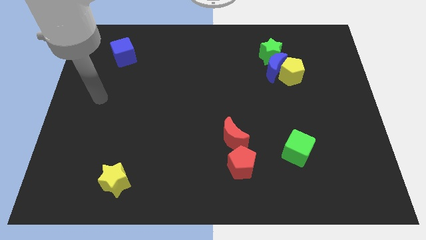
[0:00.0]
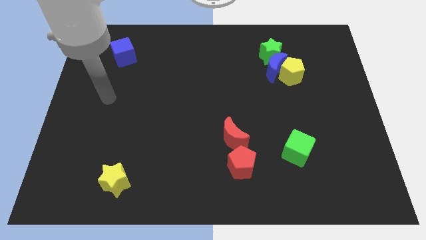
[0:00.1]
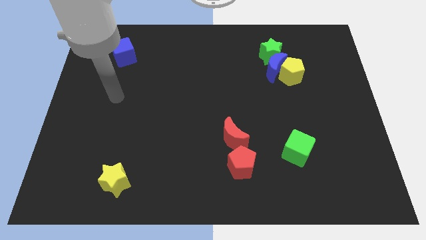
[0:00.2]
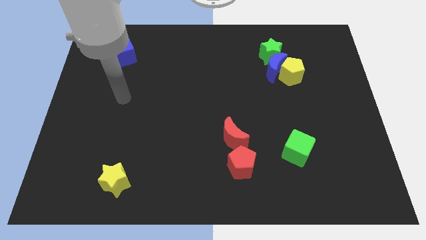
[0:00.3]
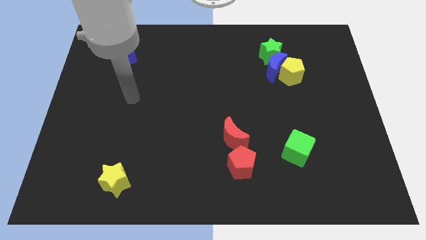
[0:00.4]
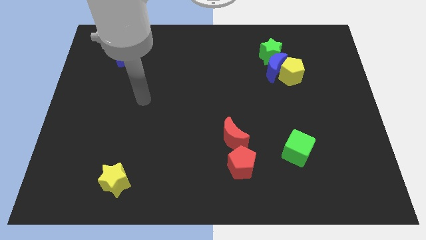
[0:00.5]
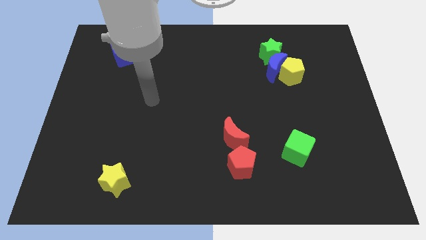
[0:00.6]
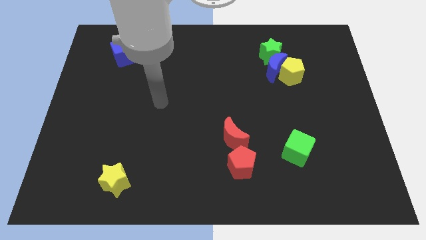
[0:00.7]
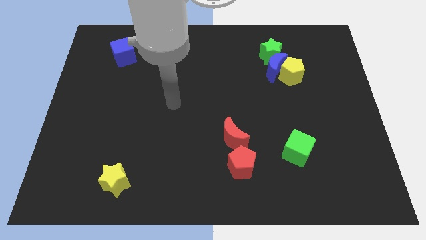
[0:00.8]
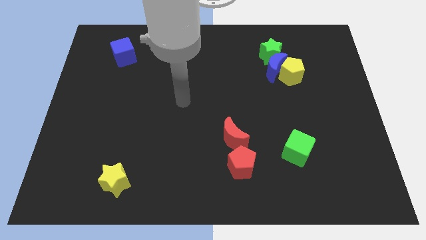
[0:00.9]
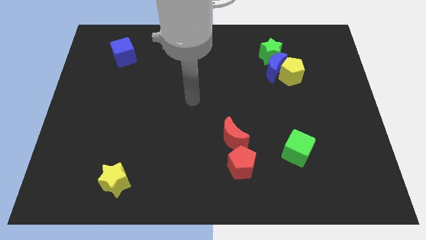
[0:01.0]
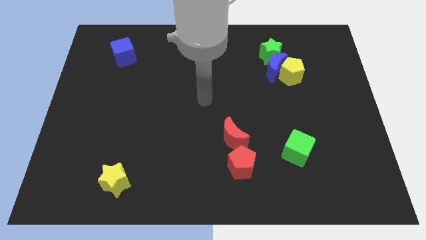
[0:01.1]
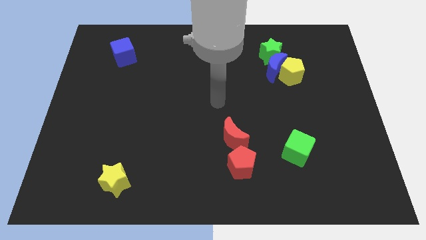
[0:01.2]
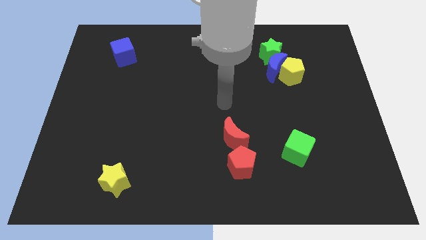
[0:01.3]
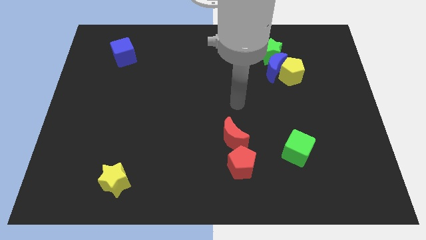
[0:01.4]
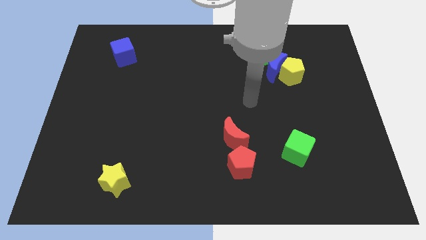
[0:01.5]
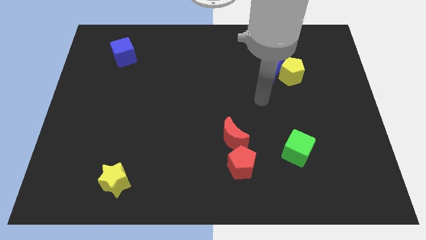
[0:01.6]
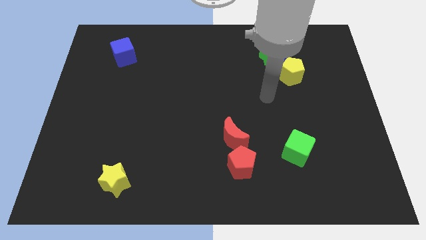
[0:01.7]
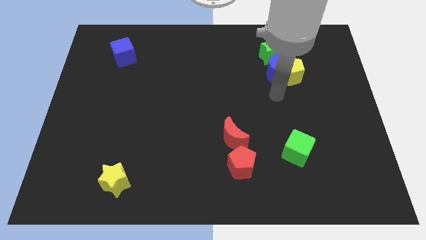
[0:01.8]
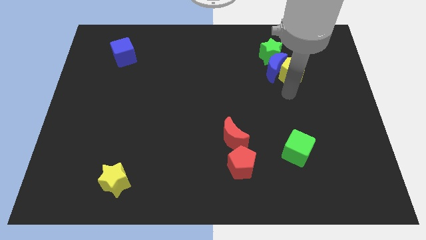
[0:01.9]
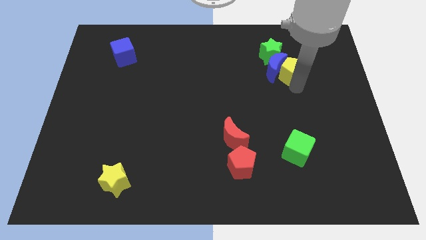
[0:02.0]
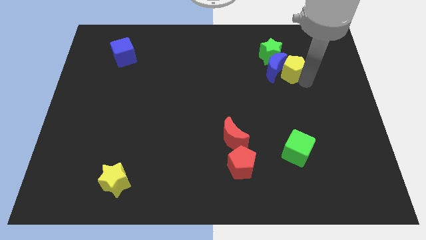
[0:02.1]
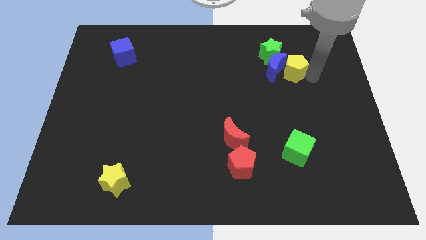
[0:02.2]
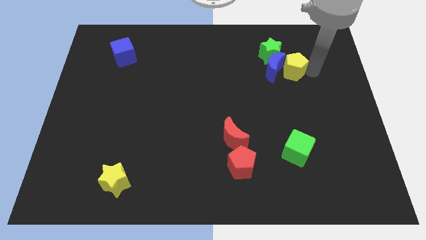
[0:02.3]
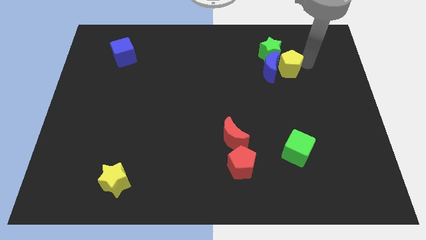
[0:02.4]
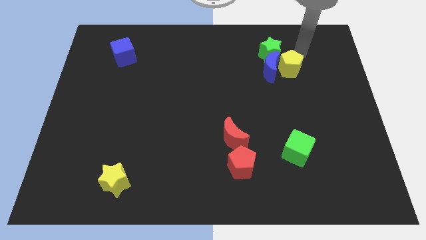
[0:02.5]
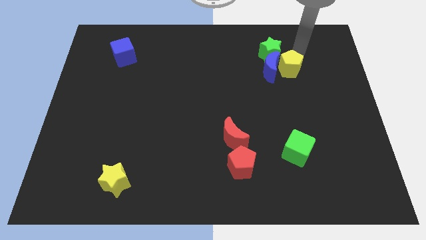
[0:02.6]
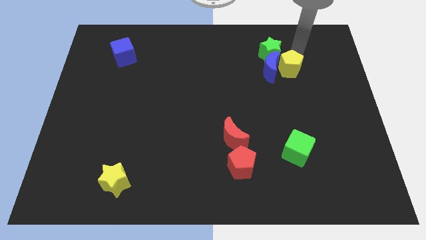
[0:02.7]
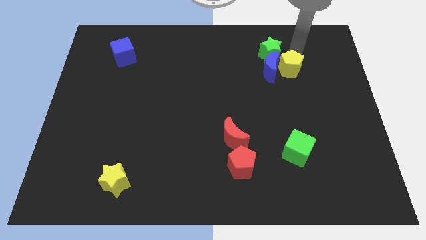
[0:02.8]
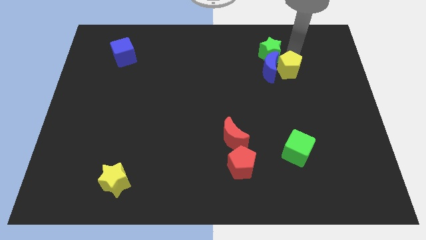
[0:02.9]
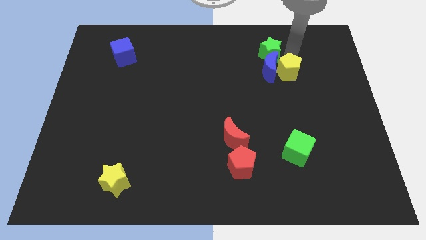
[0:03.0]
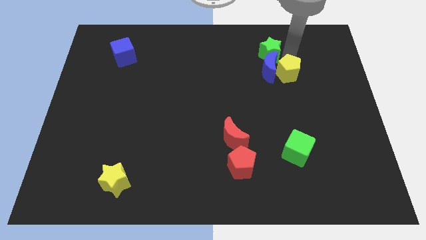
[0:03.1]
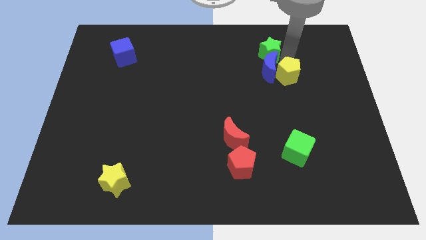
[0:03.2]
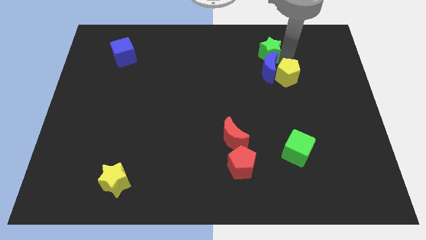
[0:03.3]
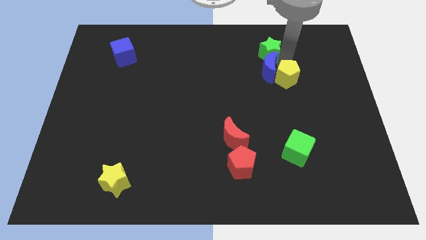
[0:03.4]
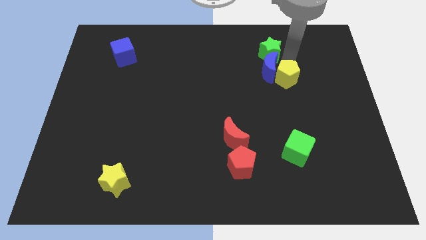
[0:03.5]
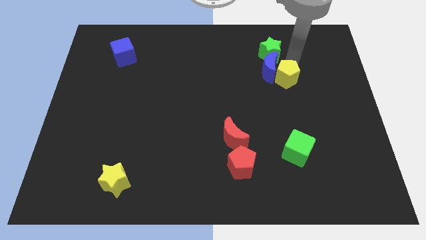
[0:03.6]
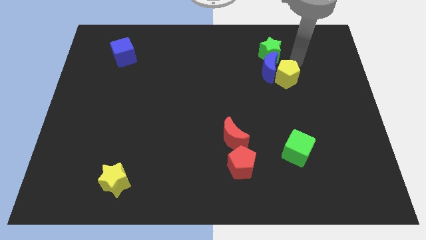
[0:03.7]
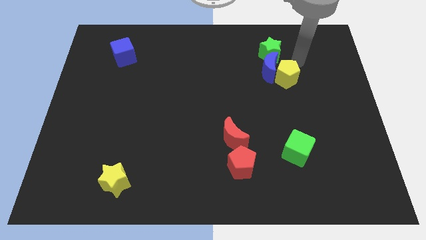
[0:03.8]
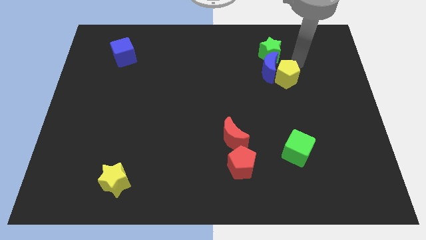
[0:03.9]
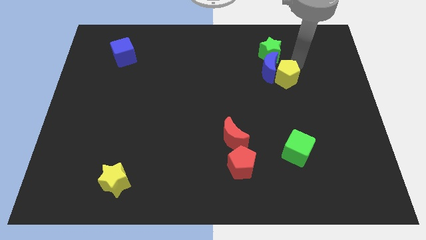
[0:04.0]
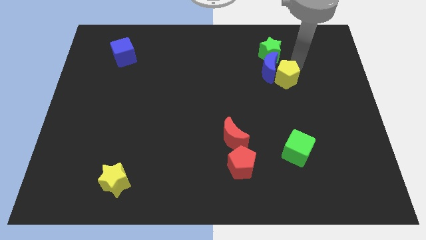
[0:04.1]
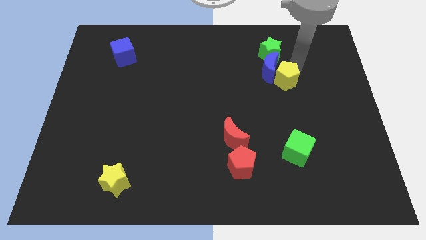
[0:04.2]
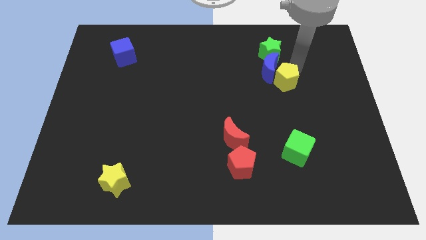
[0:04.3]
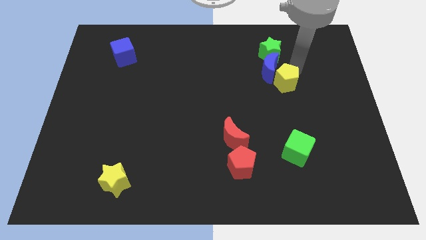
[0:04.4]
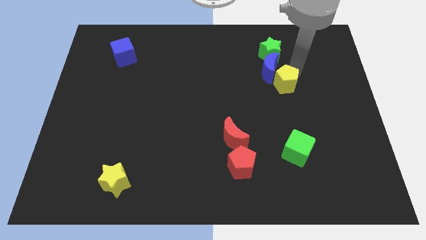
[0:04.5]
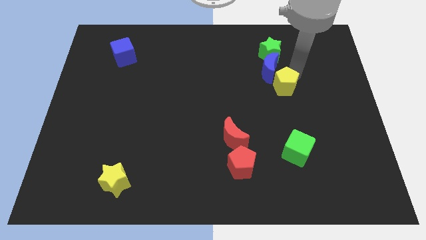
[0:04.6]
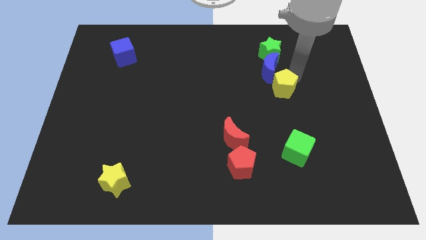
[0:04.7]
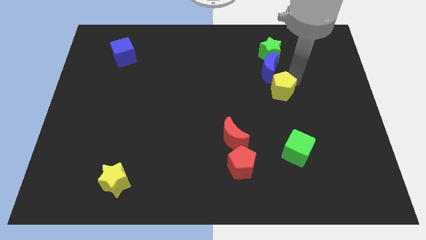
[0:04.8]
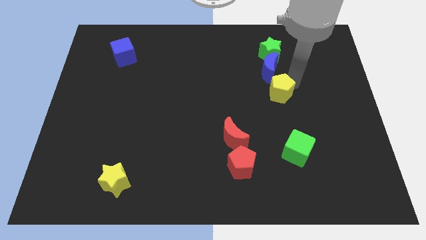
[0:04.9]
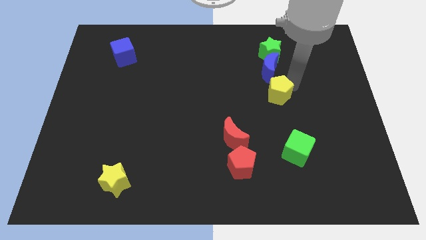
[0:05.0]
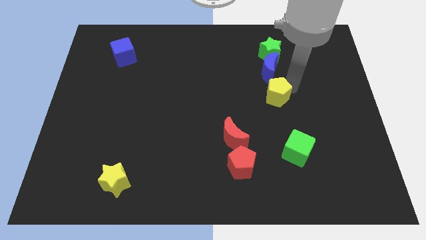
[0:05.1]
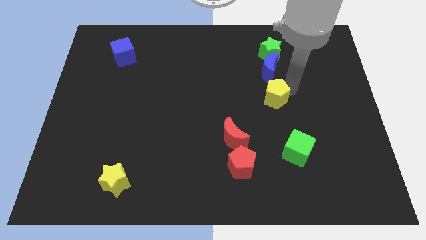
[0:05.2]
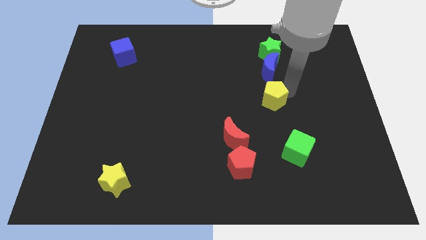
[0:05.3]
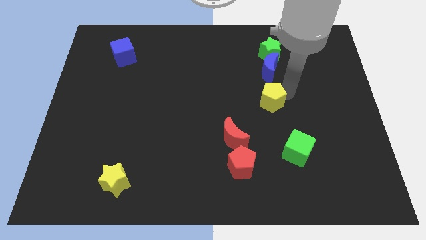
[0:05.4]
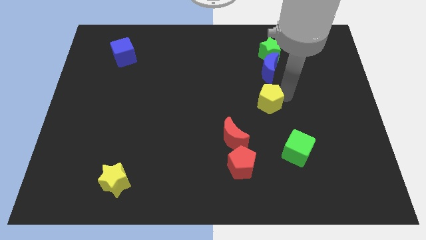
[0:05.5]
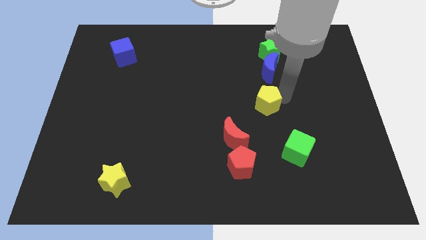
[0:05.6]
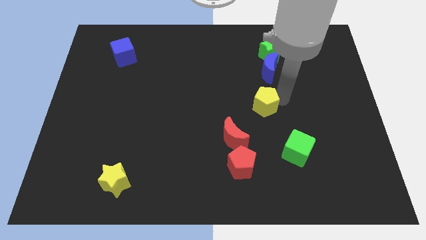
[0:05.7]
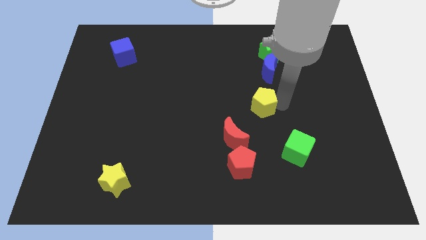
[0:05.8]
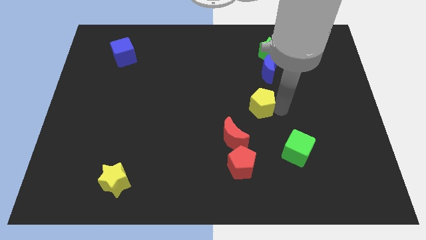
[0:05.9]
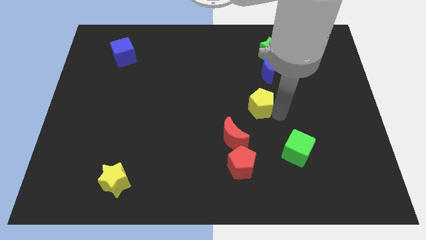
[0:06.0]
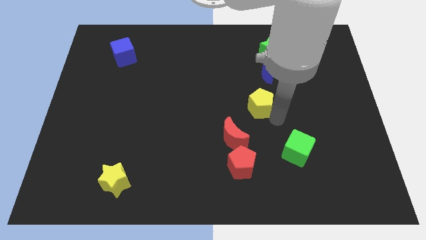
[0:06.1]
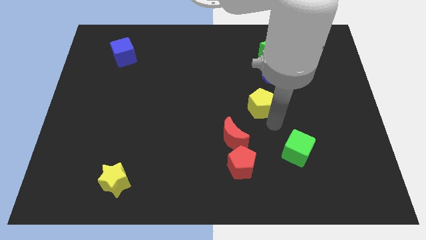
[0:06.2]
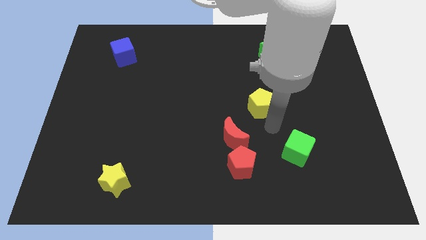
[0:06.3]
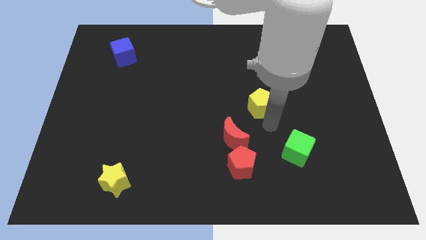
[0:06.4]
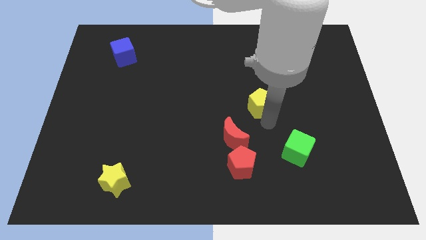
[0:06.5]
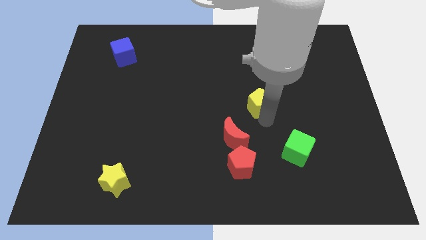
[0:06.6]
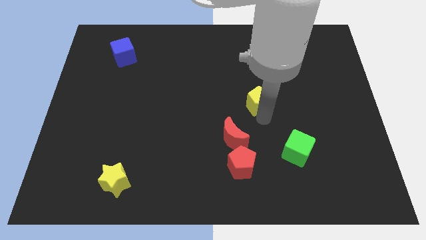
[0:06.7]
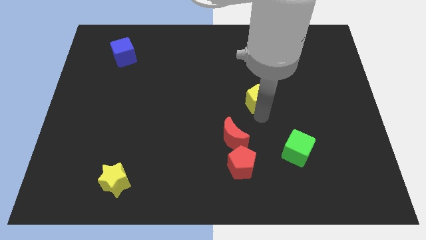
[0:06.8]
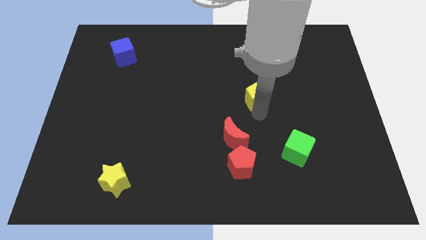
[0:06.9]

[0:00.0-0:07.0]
move the yellow pentagon to the bottom left of the blue moon
